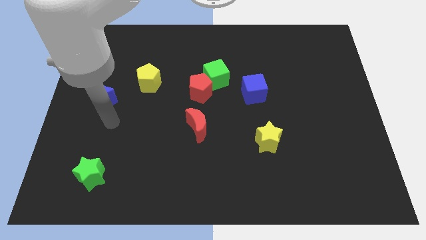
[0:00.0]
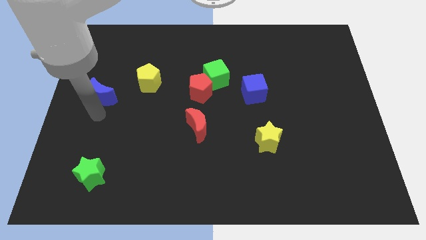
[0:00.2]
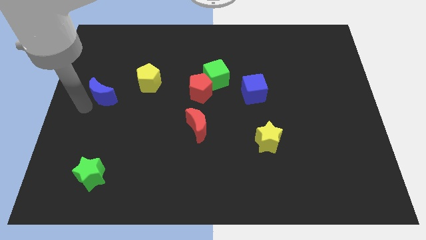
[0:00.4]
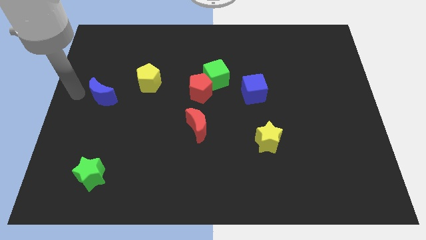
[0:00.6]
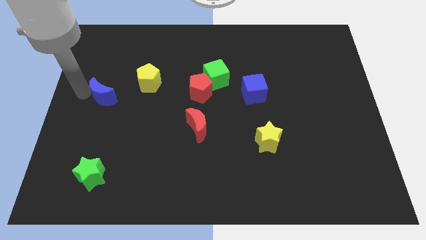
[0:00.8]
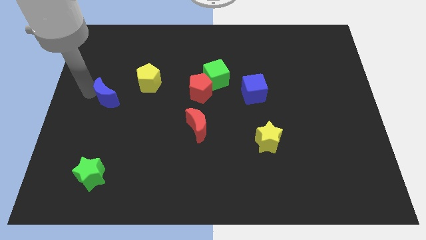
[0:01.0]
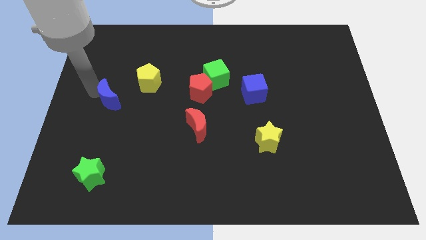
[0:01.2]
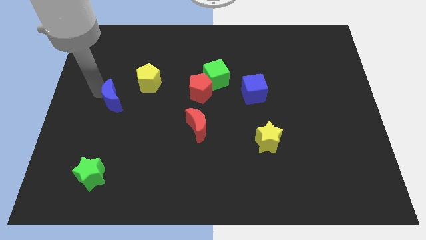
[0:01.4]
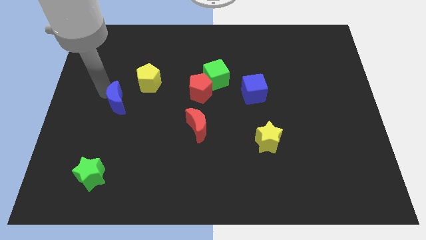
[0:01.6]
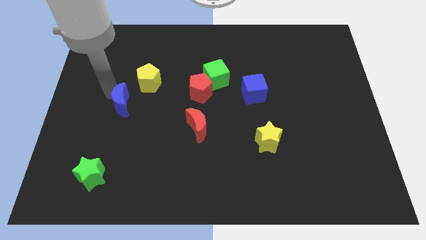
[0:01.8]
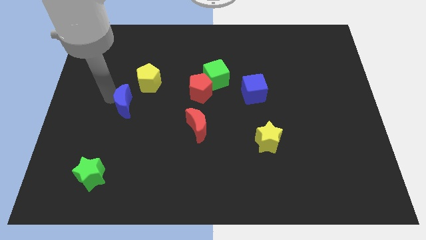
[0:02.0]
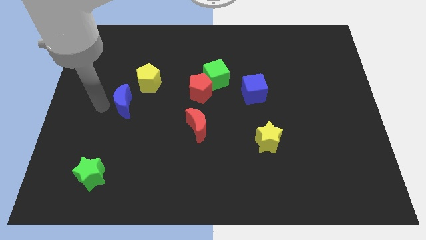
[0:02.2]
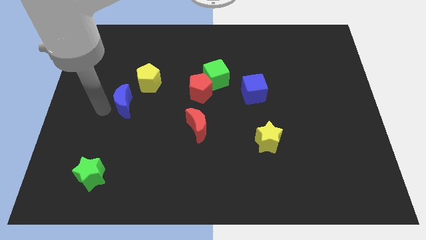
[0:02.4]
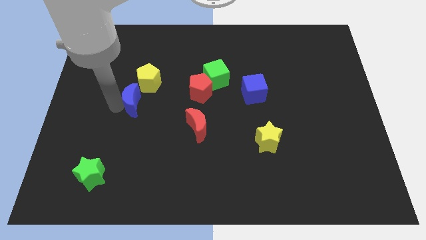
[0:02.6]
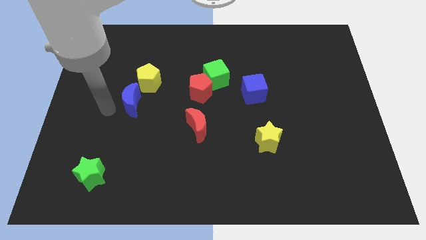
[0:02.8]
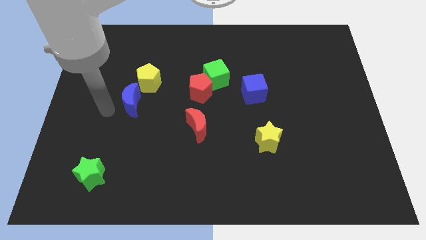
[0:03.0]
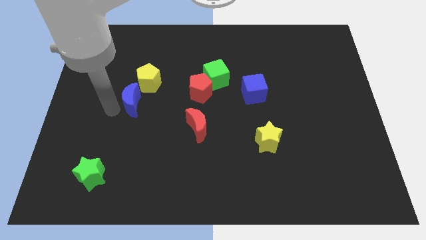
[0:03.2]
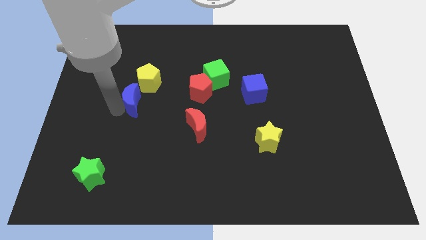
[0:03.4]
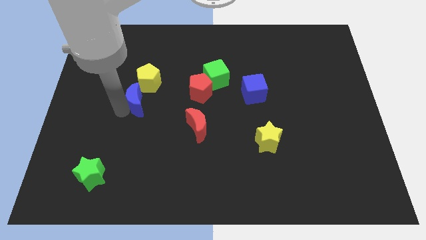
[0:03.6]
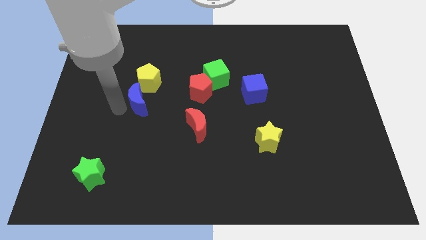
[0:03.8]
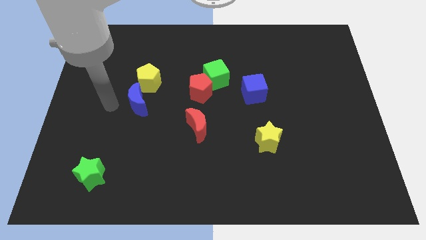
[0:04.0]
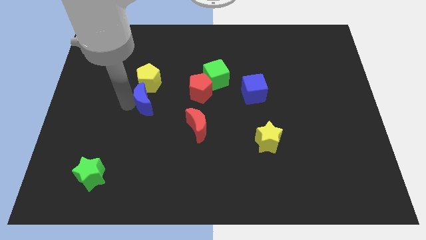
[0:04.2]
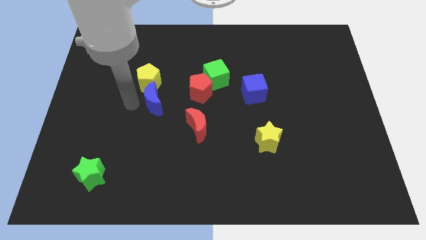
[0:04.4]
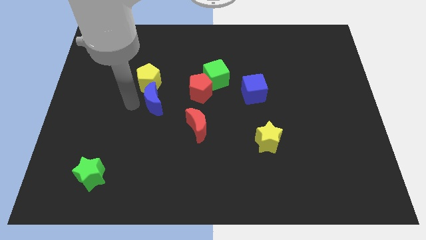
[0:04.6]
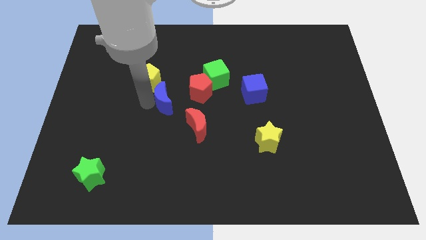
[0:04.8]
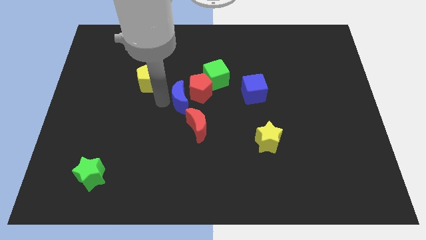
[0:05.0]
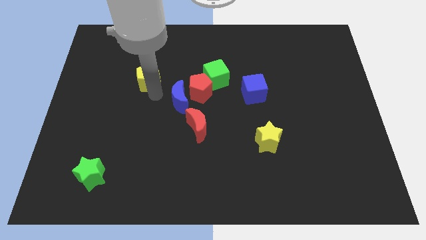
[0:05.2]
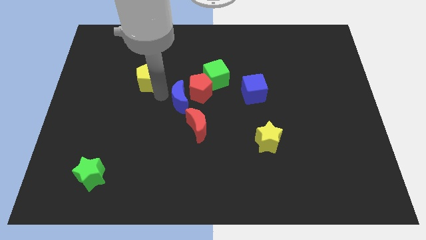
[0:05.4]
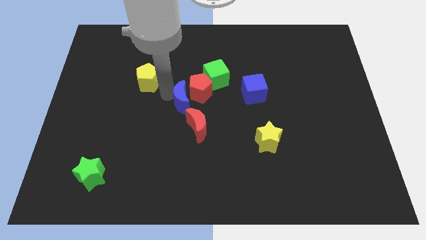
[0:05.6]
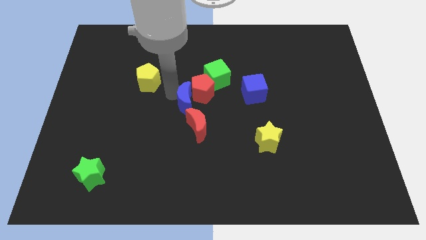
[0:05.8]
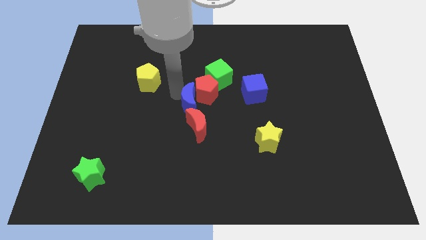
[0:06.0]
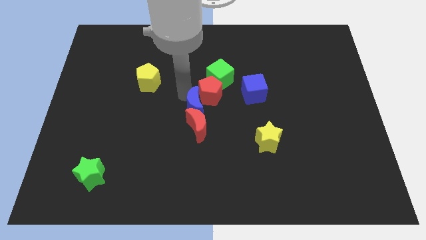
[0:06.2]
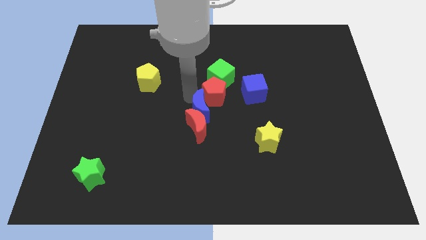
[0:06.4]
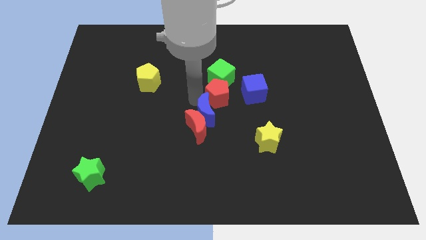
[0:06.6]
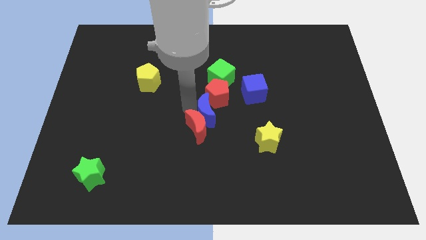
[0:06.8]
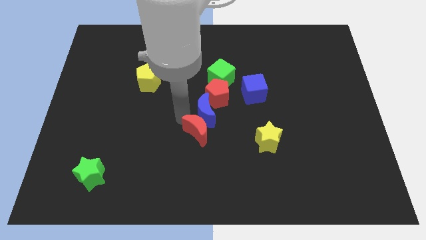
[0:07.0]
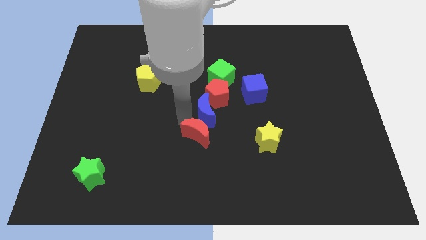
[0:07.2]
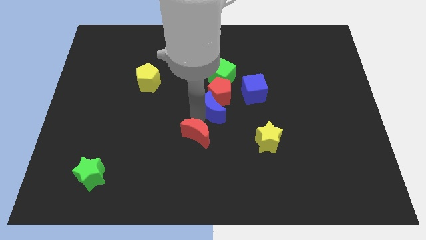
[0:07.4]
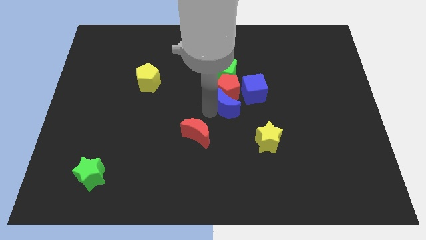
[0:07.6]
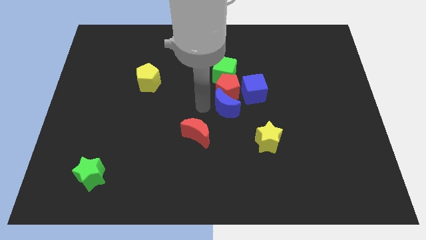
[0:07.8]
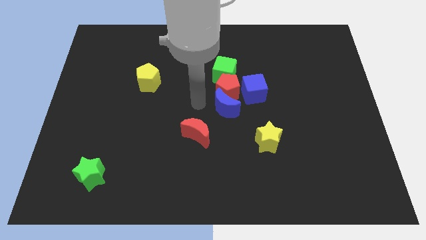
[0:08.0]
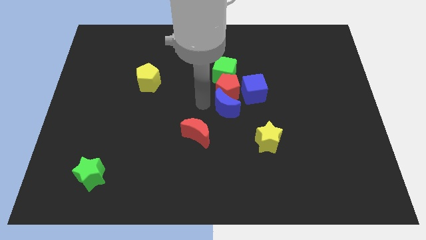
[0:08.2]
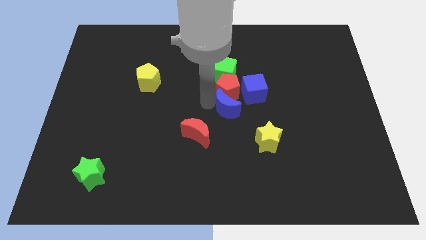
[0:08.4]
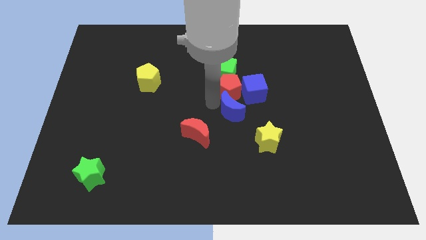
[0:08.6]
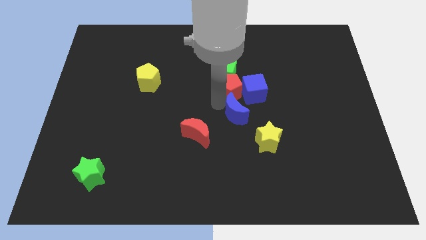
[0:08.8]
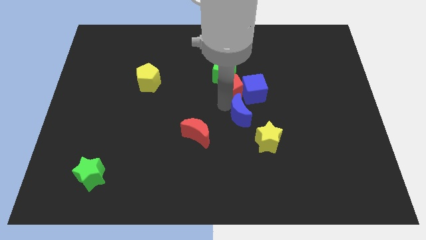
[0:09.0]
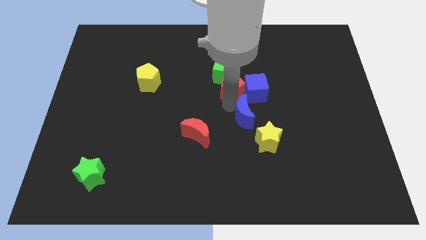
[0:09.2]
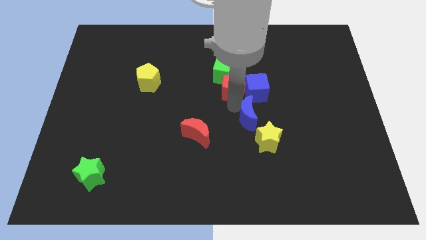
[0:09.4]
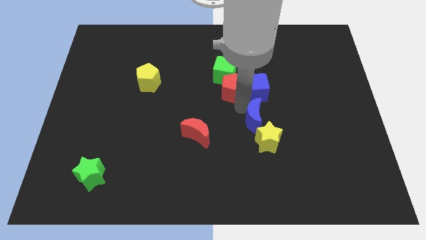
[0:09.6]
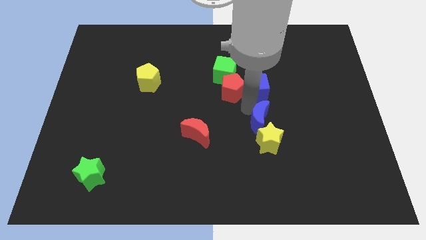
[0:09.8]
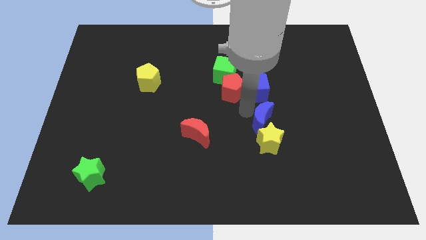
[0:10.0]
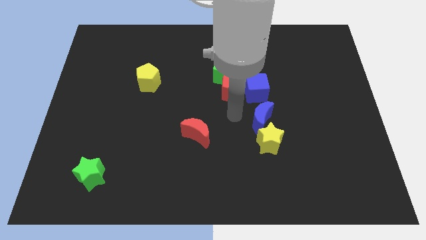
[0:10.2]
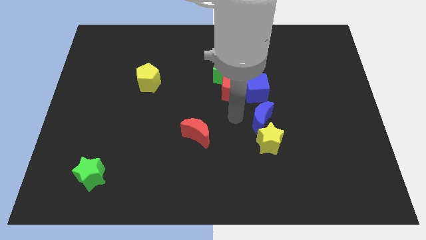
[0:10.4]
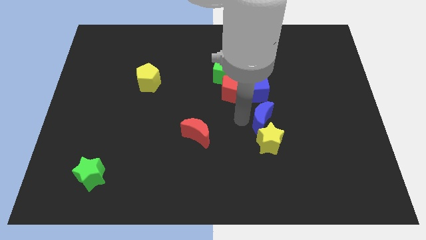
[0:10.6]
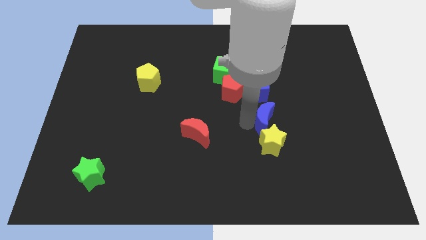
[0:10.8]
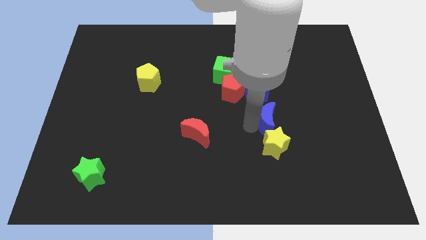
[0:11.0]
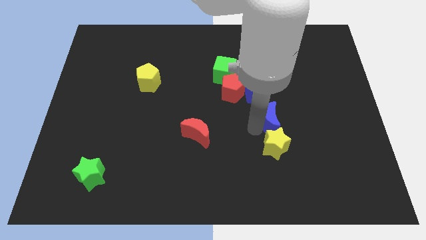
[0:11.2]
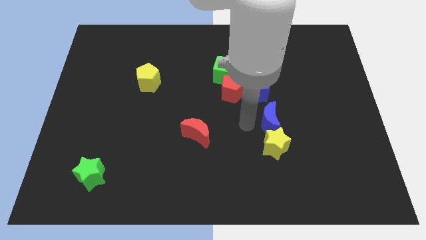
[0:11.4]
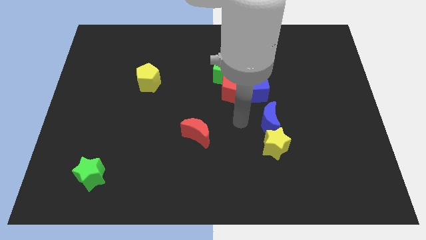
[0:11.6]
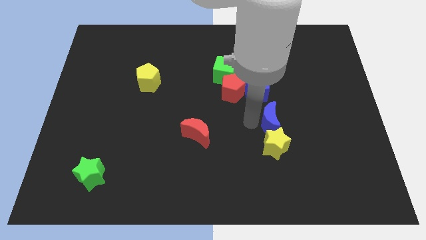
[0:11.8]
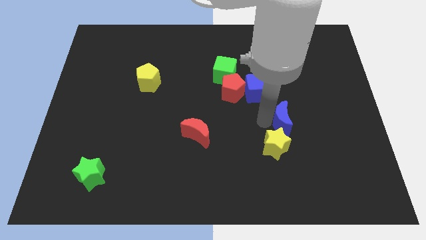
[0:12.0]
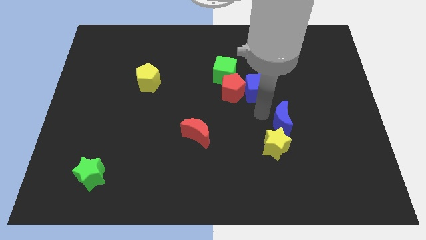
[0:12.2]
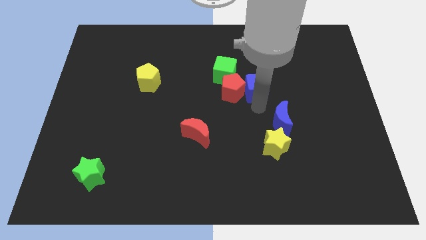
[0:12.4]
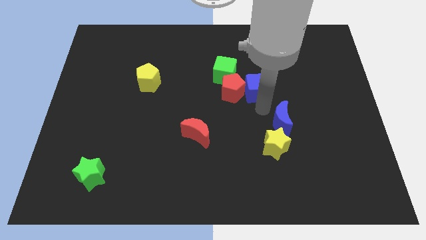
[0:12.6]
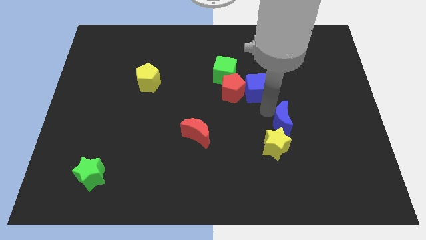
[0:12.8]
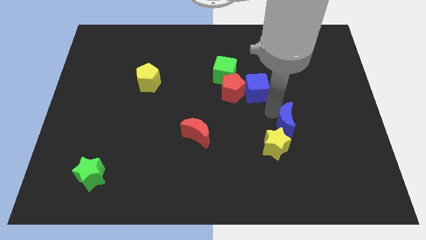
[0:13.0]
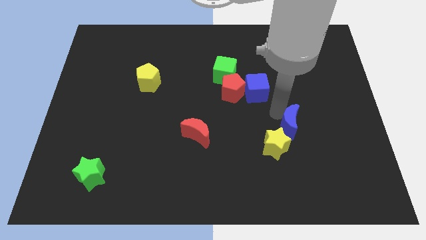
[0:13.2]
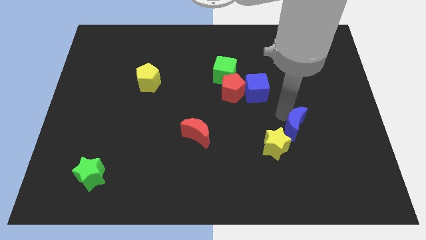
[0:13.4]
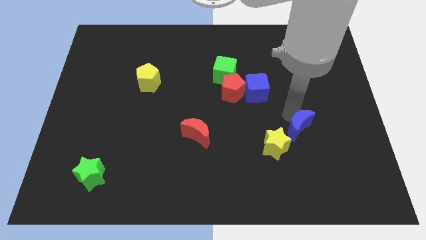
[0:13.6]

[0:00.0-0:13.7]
slide the blue moon just right of the yellow star
